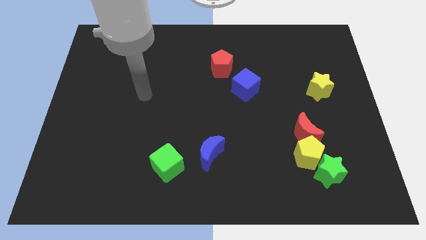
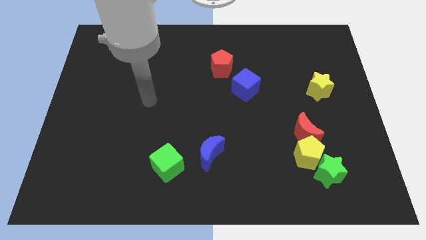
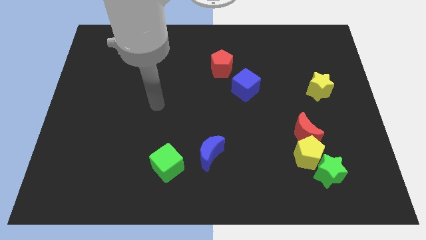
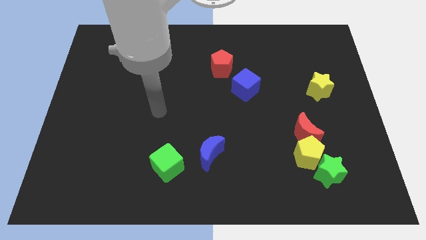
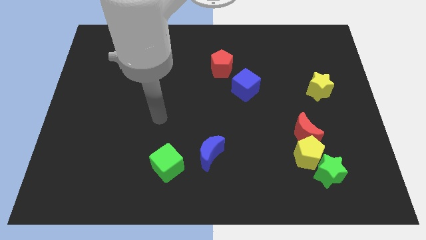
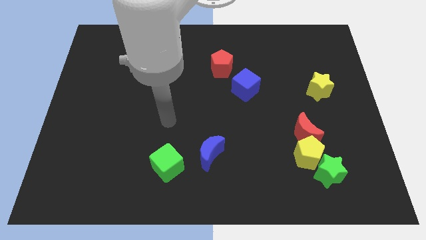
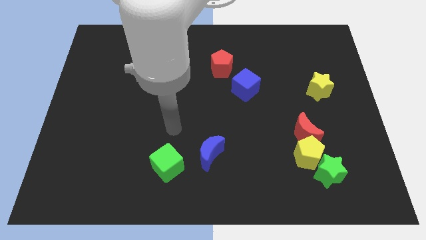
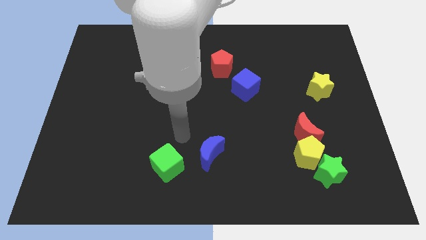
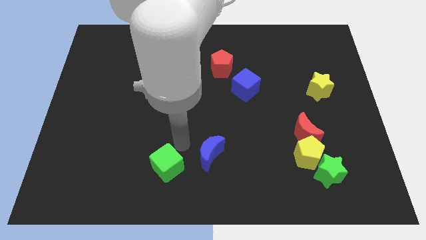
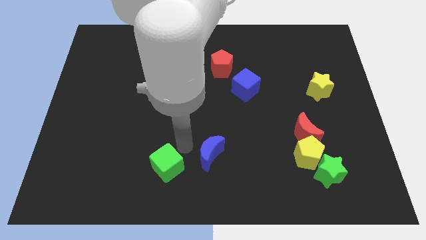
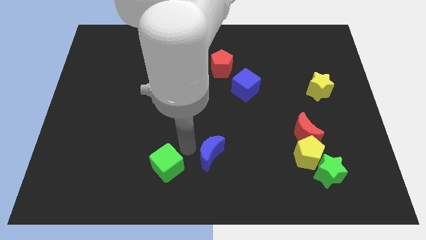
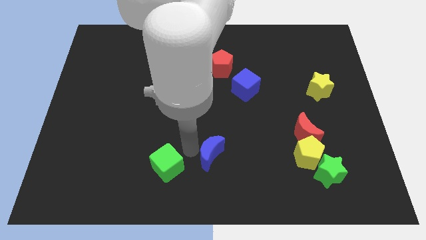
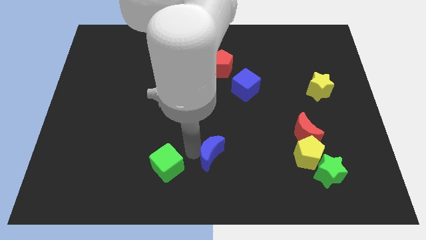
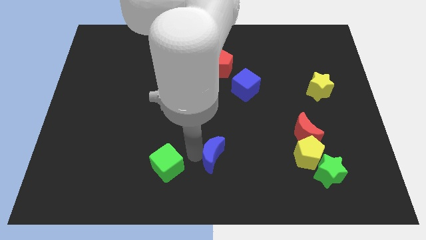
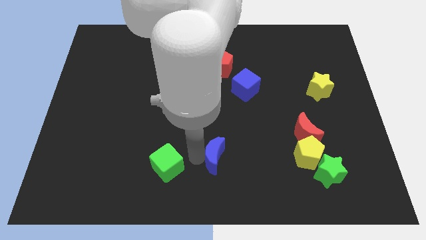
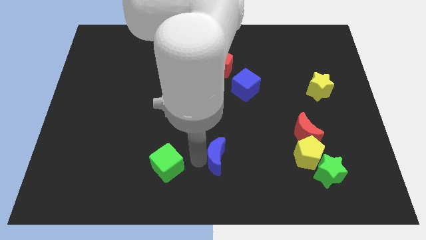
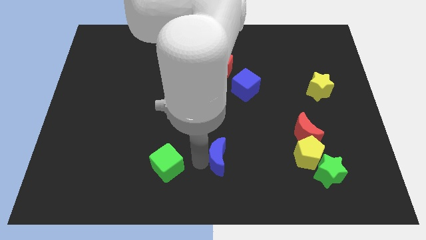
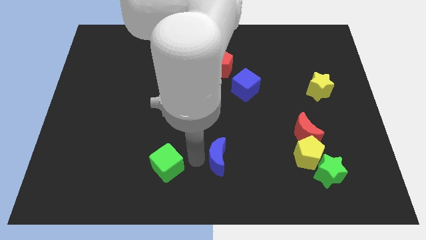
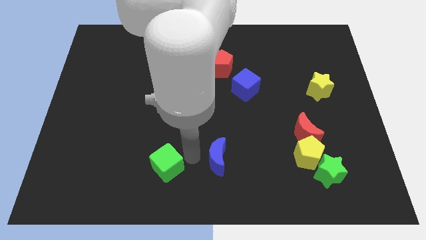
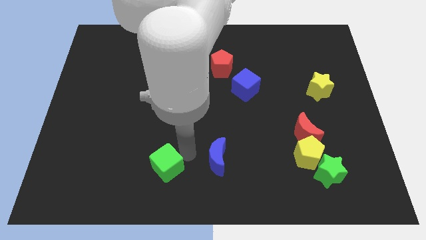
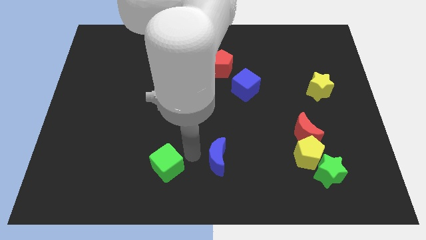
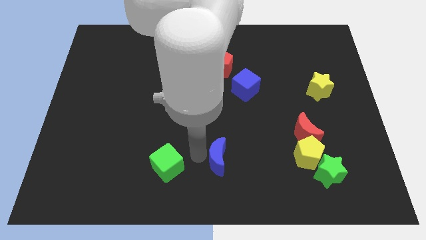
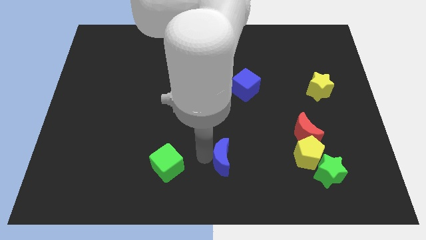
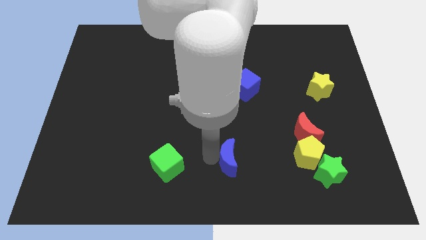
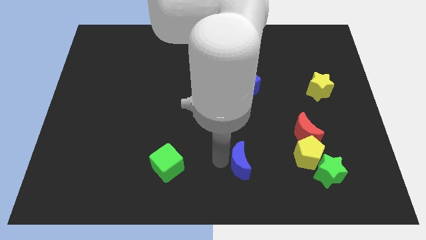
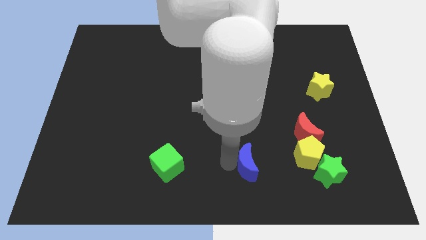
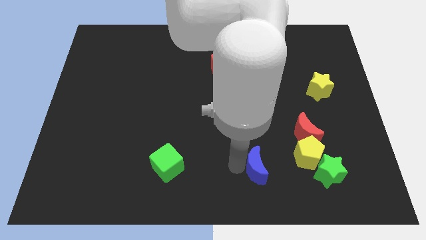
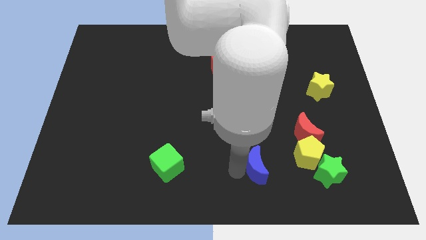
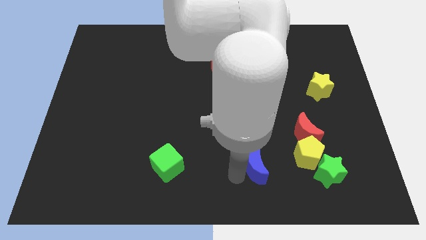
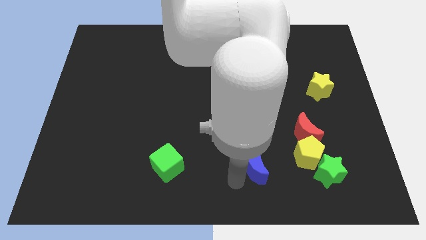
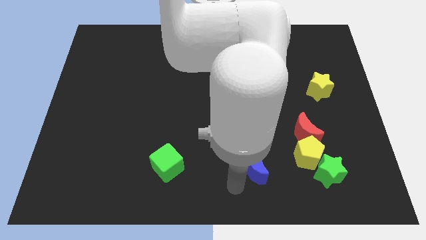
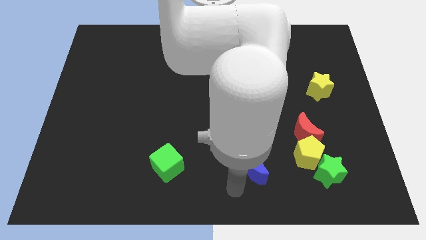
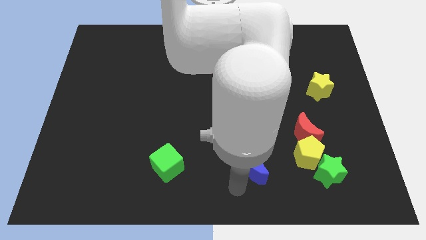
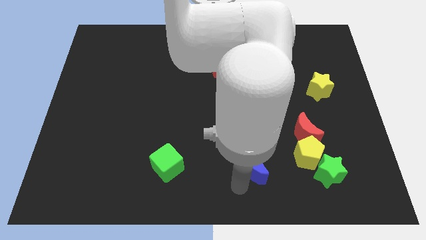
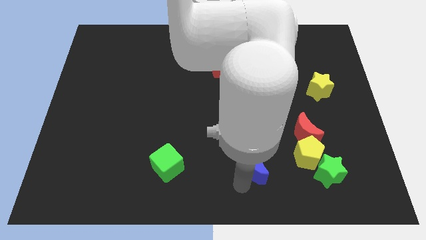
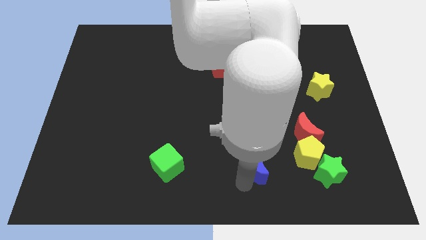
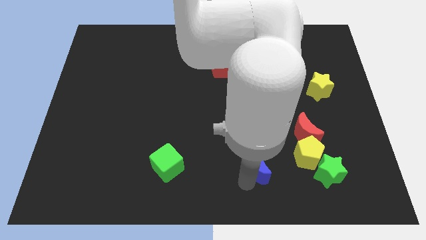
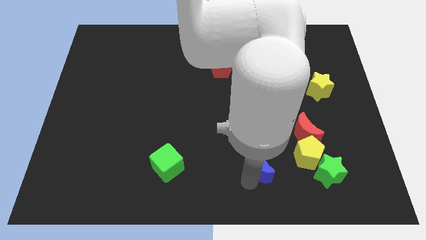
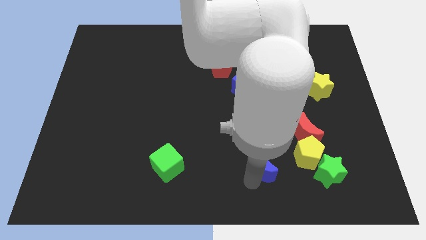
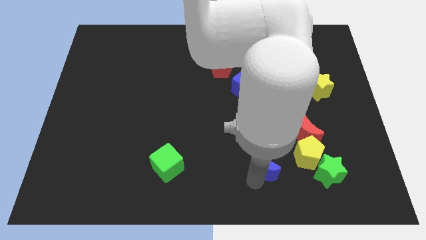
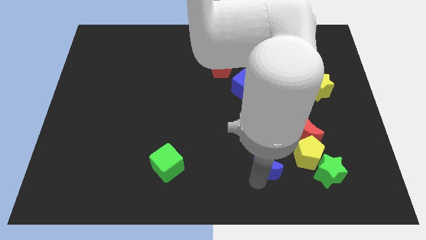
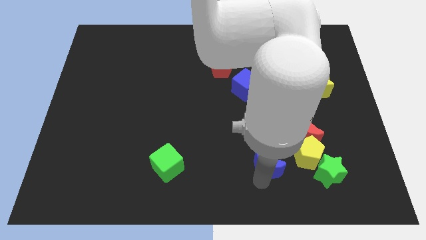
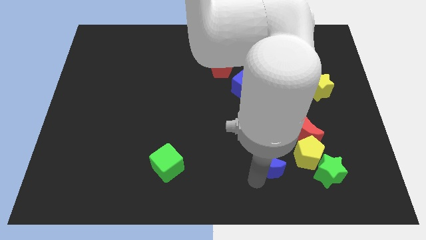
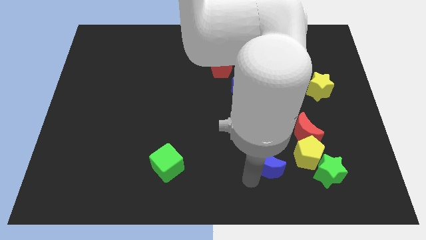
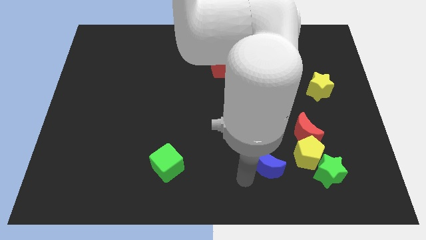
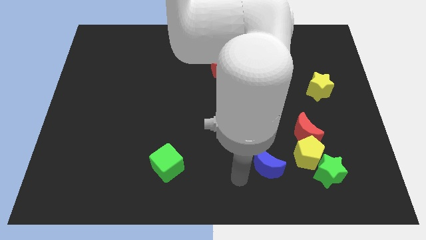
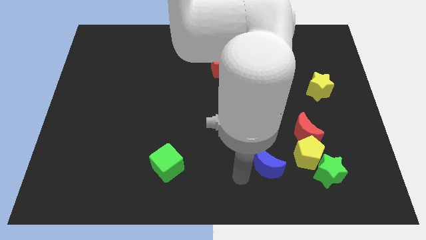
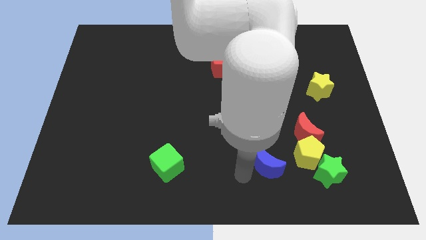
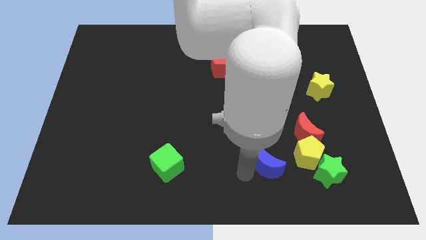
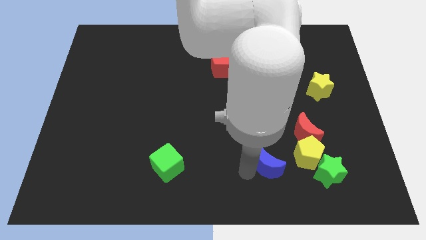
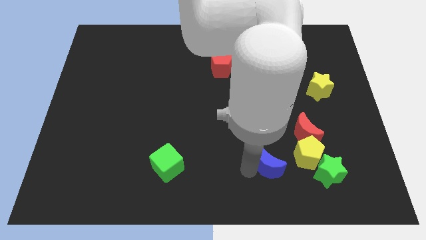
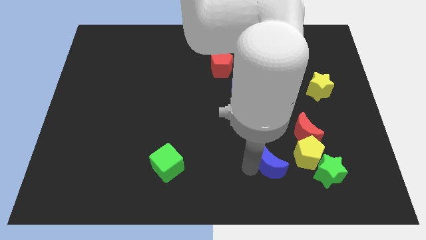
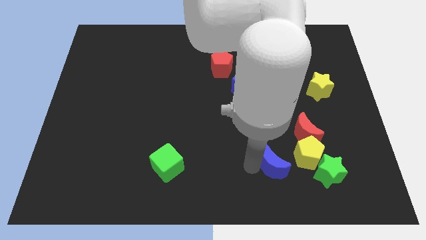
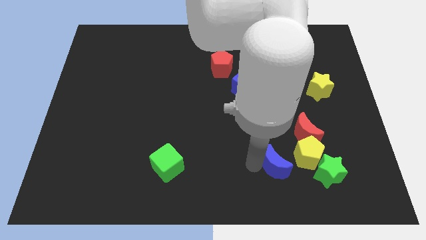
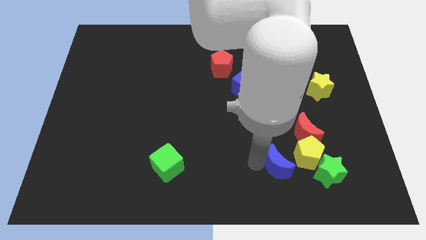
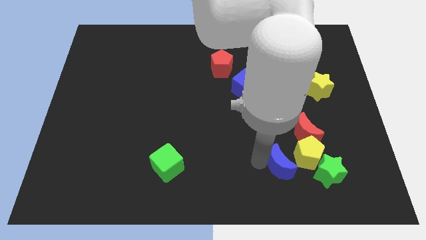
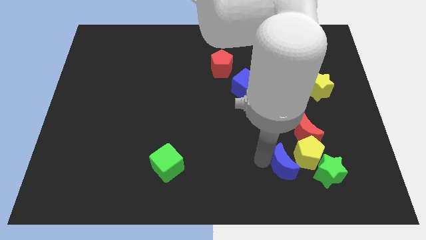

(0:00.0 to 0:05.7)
move the blue moon towards the yellow pentagon

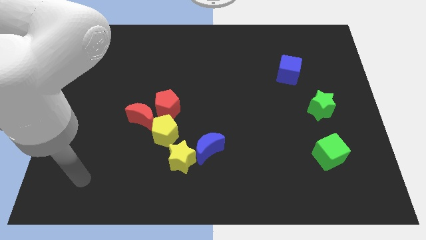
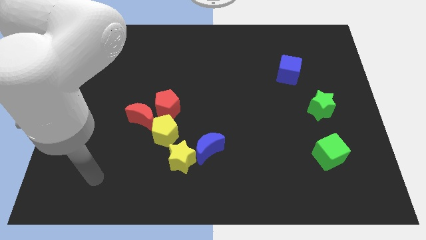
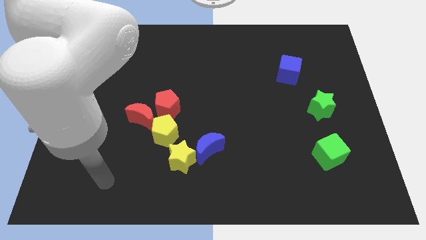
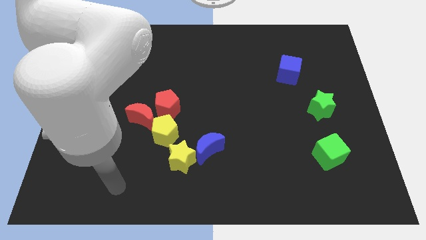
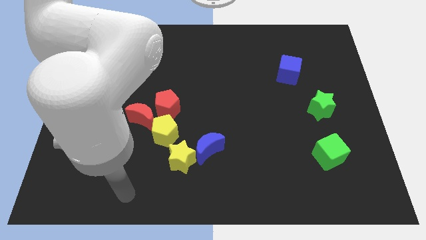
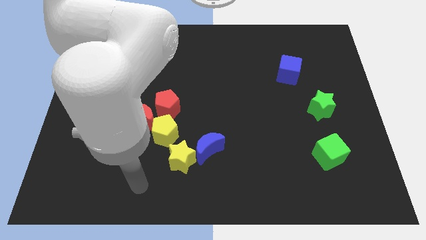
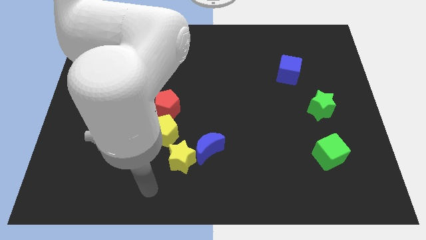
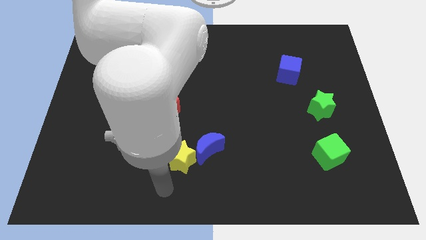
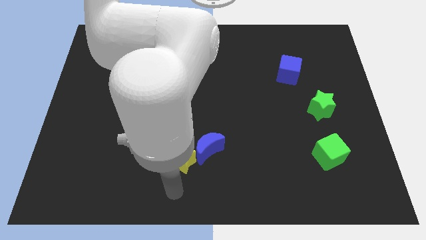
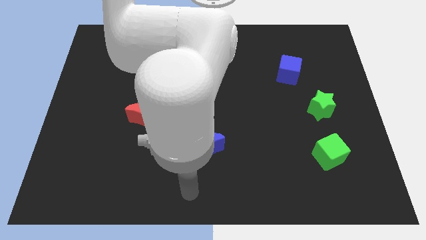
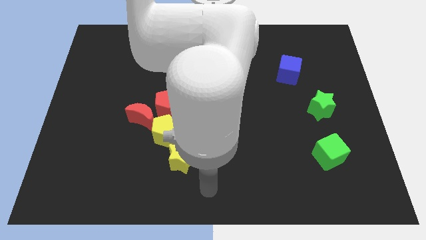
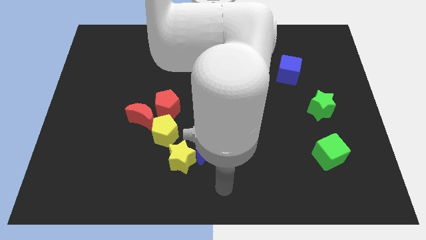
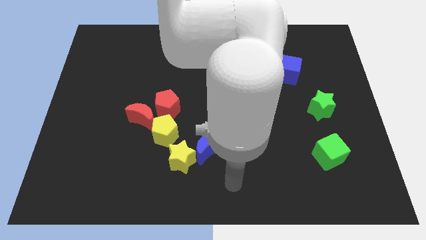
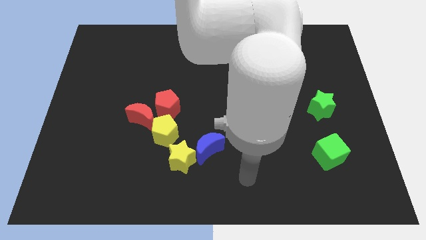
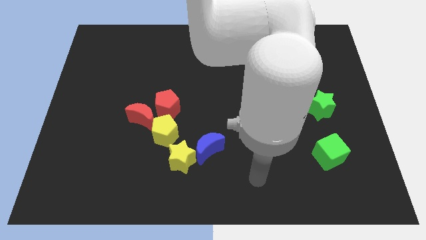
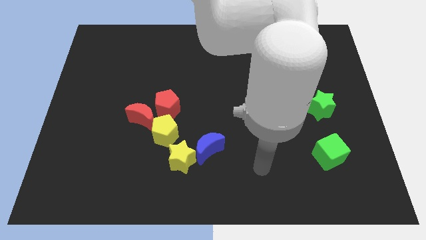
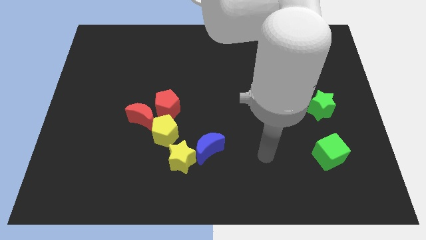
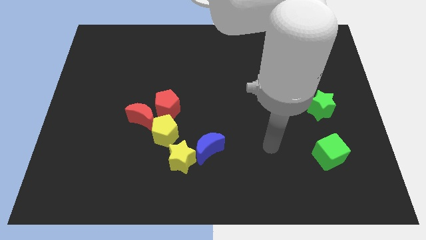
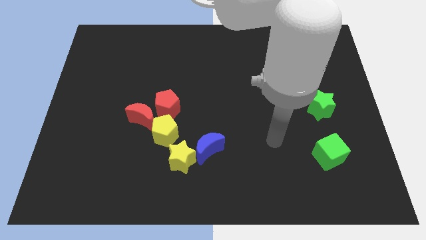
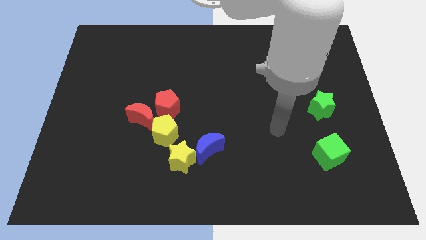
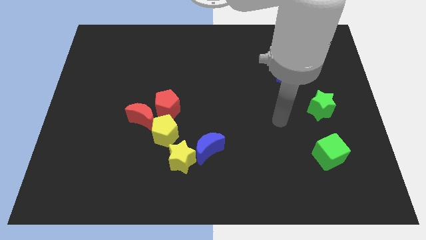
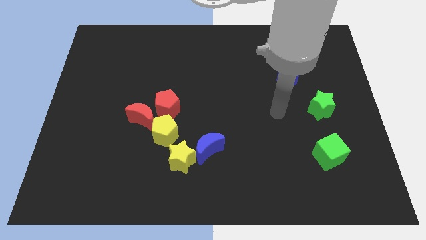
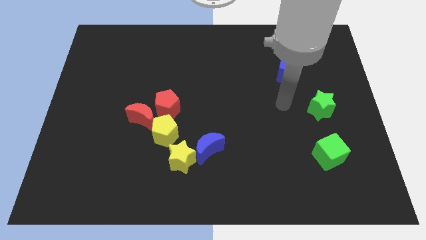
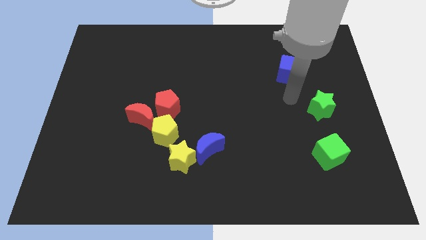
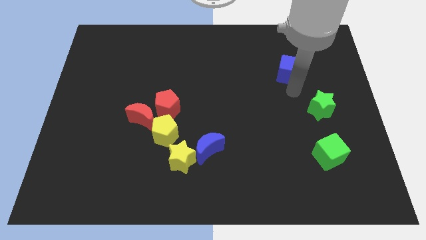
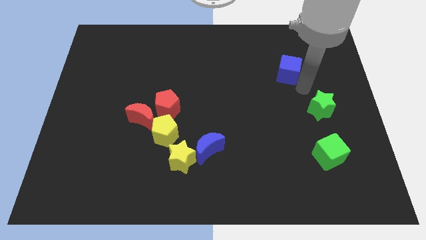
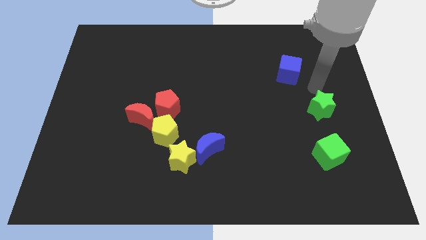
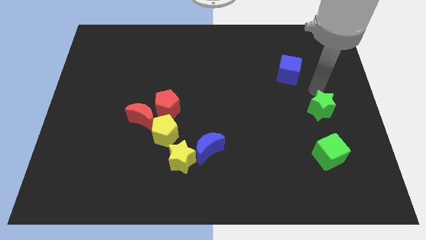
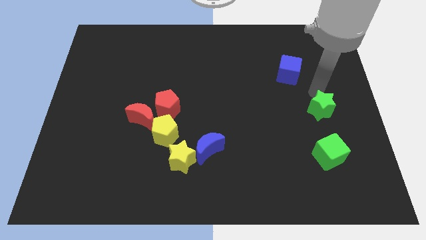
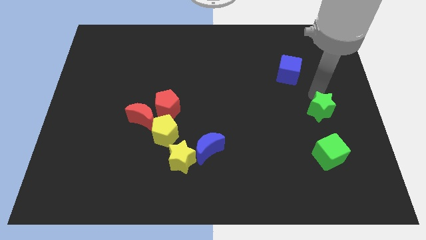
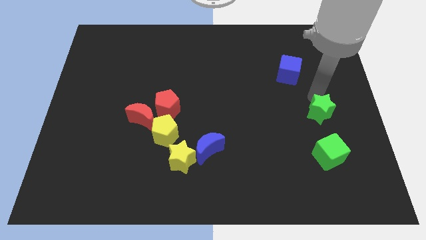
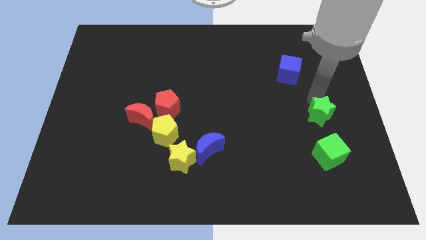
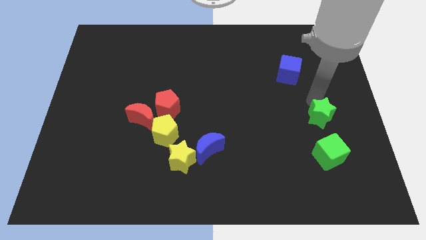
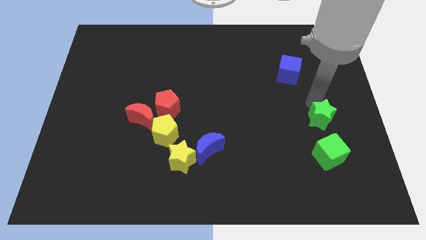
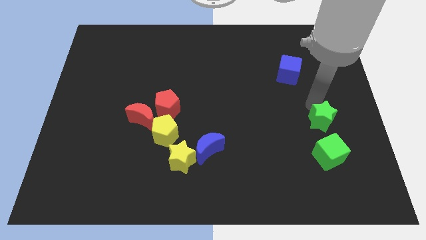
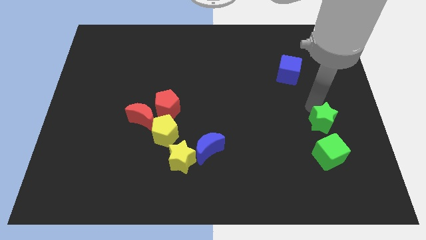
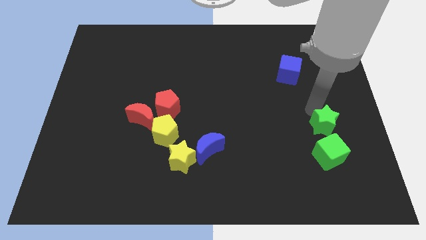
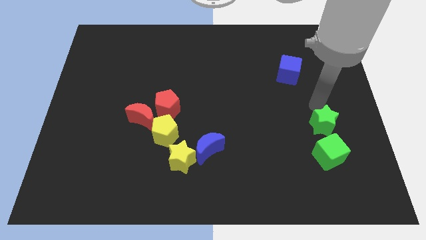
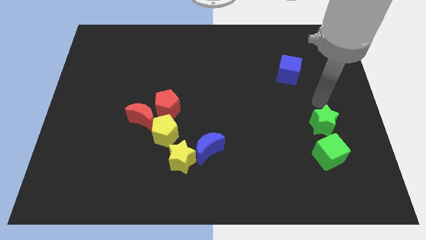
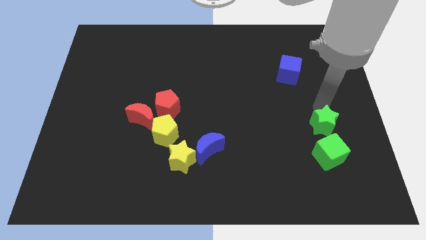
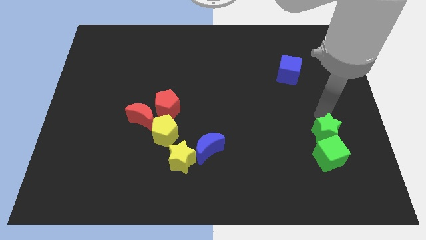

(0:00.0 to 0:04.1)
move the green star to the green cube
